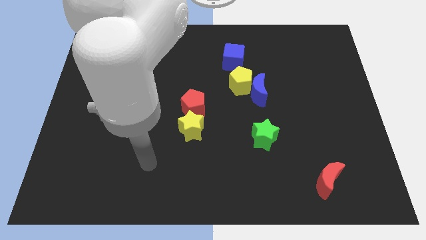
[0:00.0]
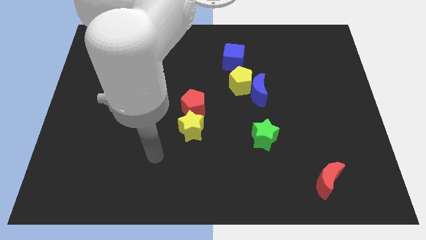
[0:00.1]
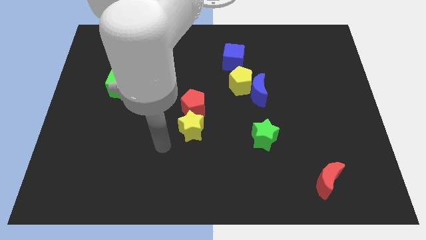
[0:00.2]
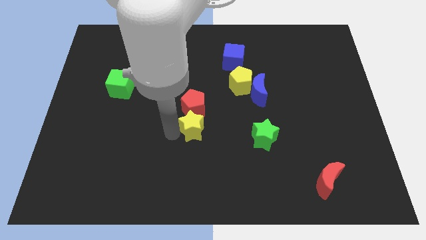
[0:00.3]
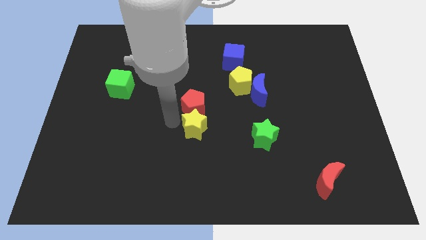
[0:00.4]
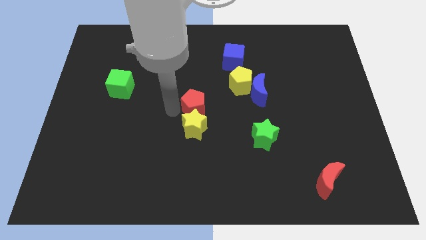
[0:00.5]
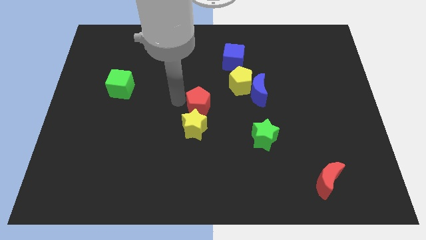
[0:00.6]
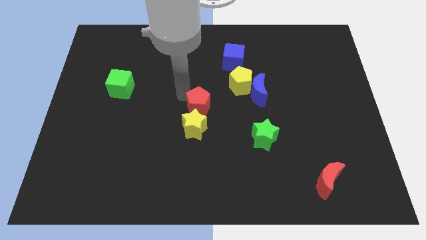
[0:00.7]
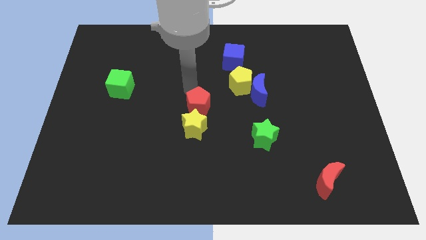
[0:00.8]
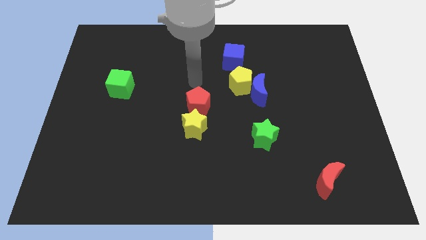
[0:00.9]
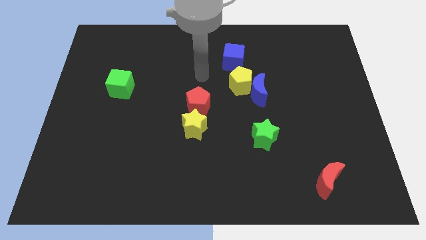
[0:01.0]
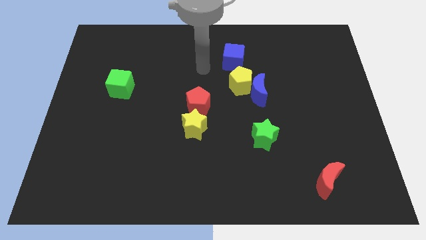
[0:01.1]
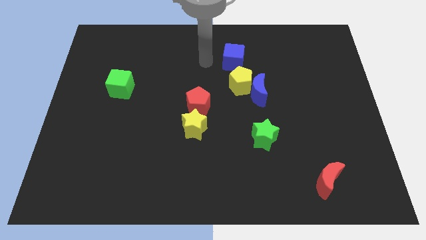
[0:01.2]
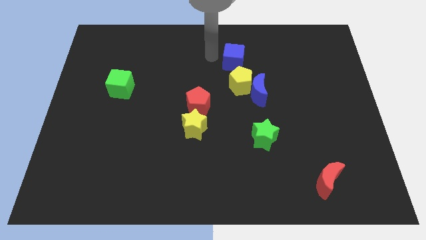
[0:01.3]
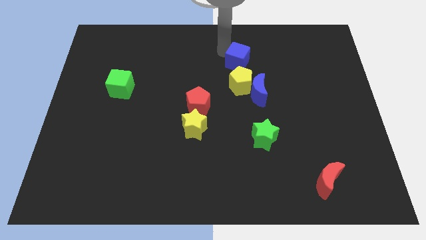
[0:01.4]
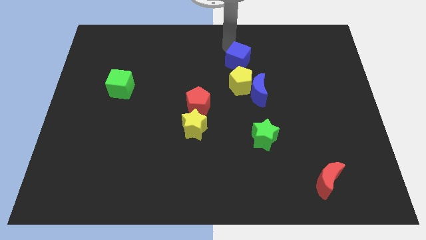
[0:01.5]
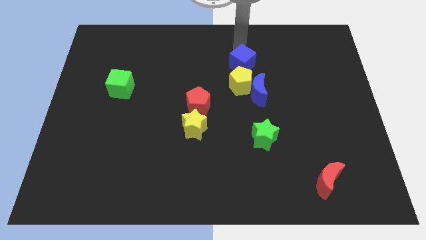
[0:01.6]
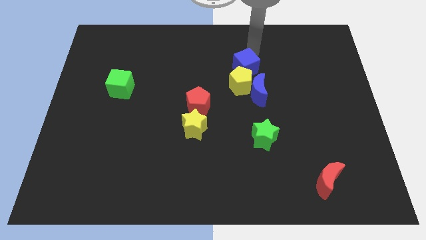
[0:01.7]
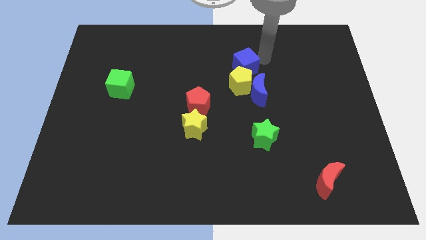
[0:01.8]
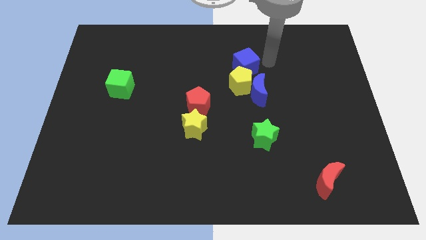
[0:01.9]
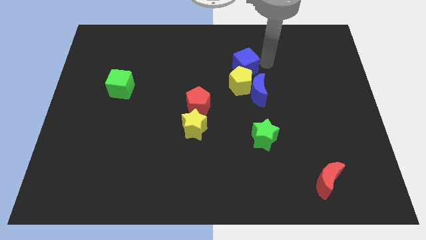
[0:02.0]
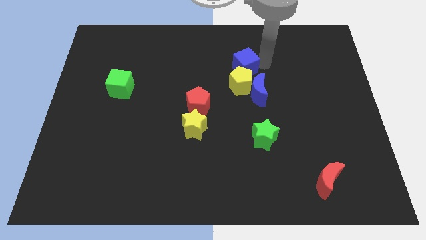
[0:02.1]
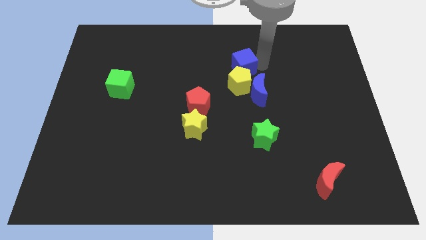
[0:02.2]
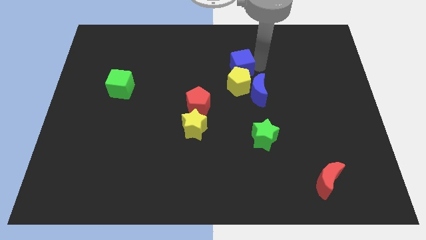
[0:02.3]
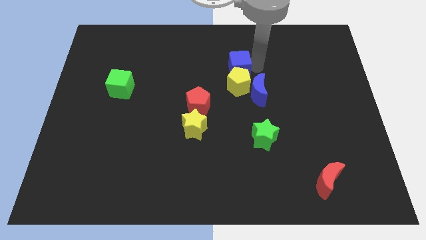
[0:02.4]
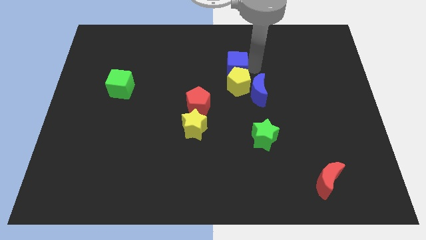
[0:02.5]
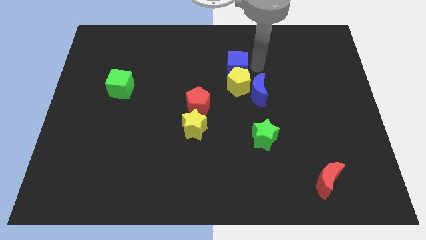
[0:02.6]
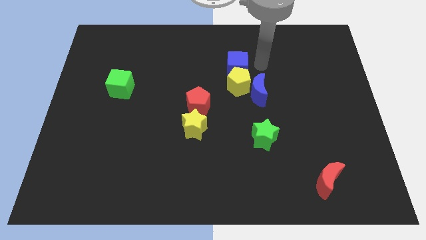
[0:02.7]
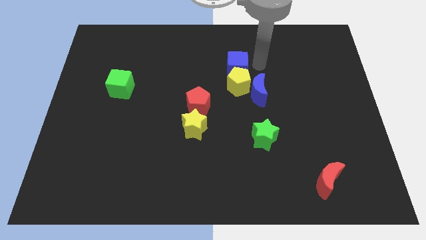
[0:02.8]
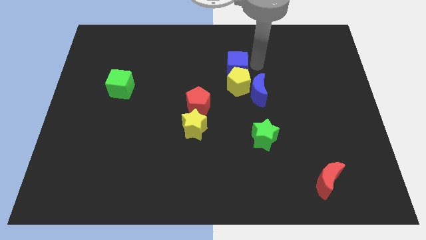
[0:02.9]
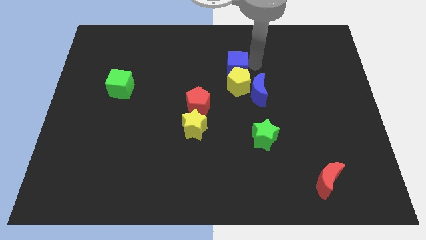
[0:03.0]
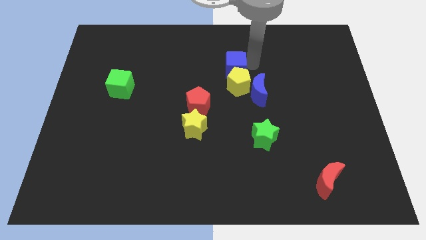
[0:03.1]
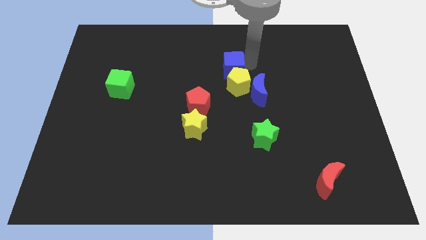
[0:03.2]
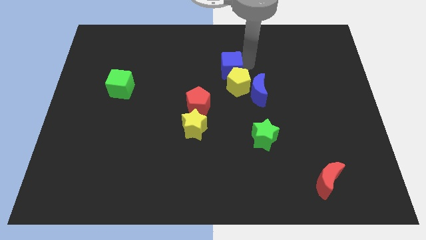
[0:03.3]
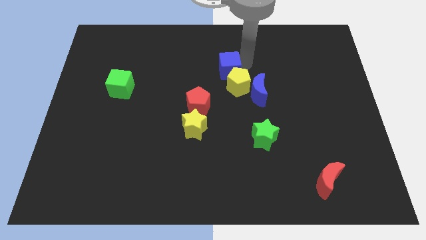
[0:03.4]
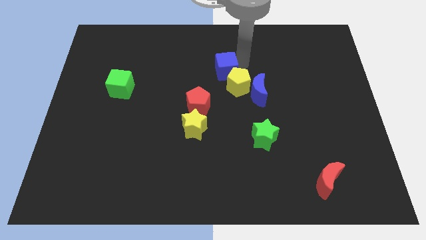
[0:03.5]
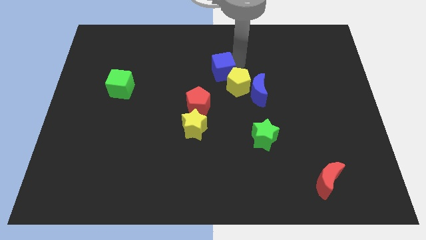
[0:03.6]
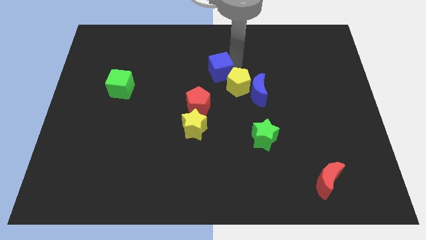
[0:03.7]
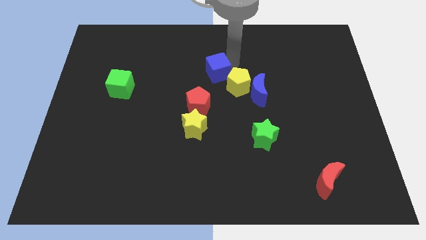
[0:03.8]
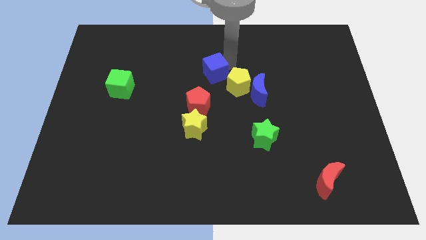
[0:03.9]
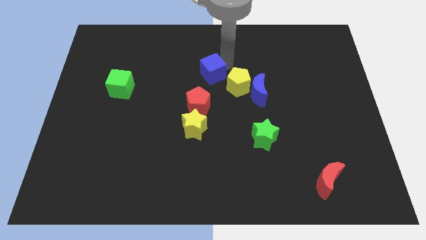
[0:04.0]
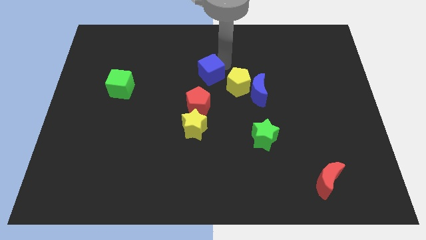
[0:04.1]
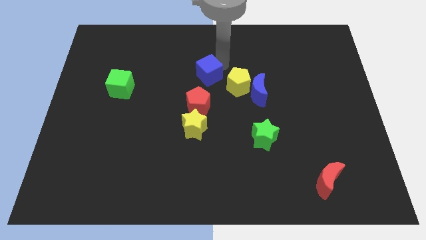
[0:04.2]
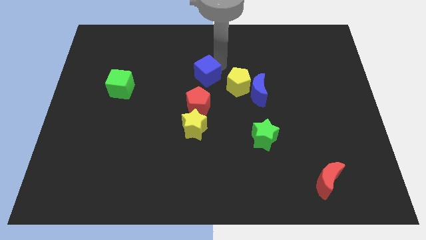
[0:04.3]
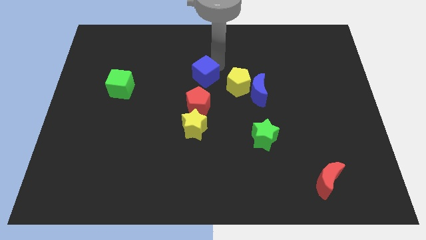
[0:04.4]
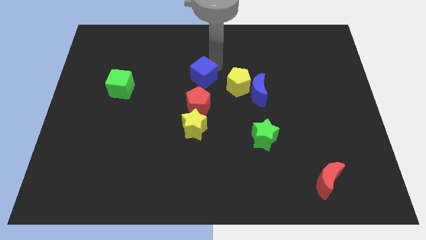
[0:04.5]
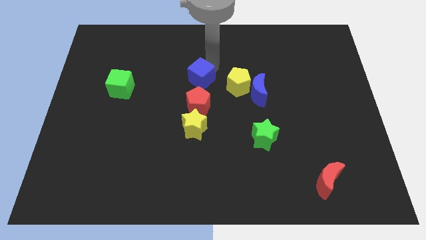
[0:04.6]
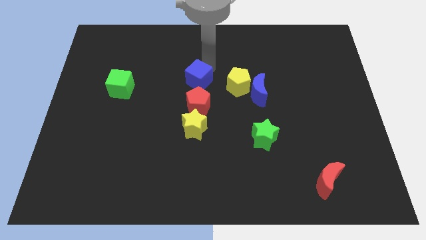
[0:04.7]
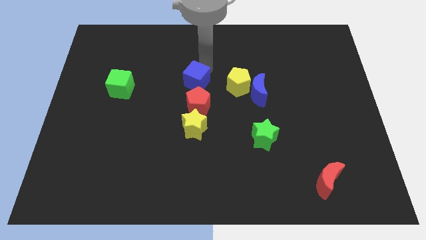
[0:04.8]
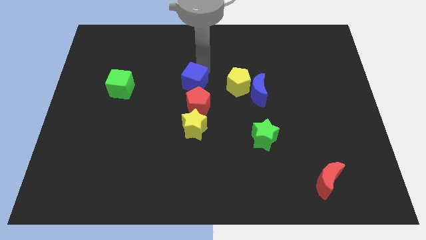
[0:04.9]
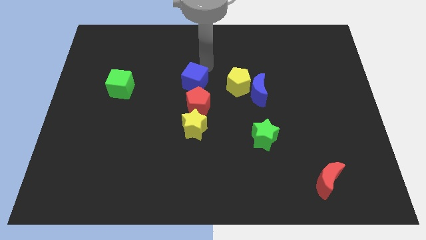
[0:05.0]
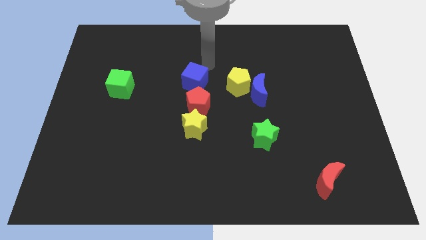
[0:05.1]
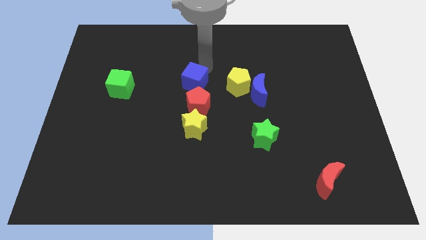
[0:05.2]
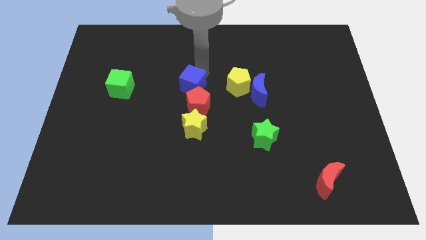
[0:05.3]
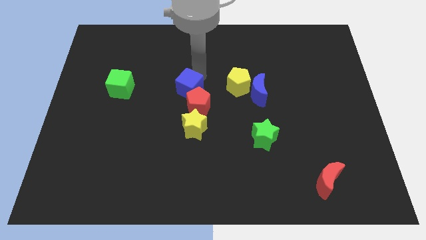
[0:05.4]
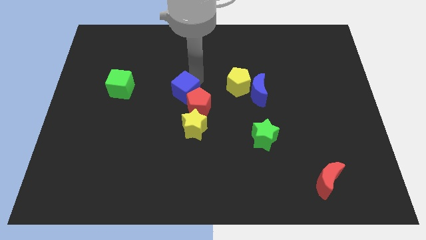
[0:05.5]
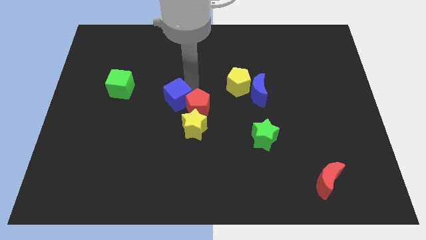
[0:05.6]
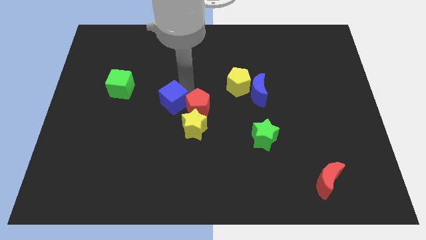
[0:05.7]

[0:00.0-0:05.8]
push the blue cube diagonally down and left

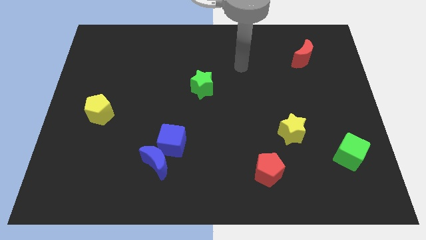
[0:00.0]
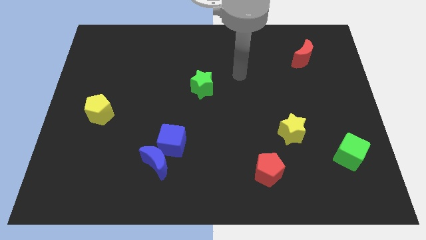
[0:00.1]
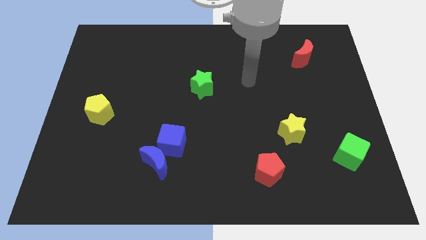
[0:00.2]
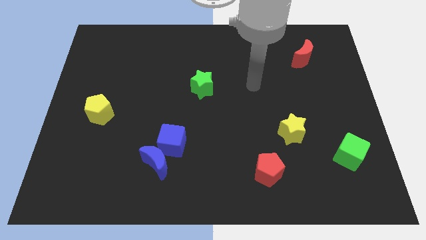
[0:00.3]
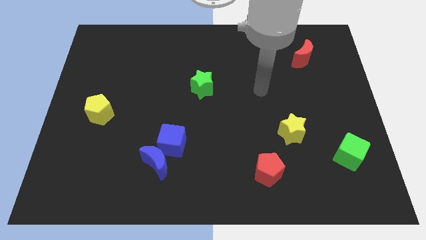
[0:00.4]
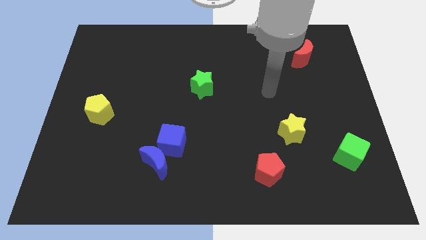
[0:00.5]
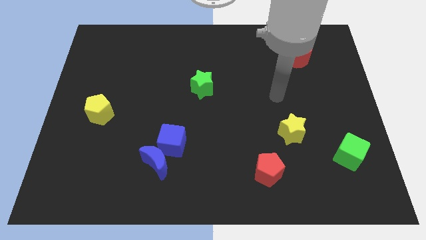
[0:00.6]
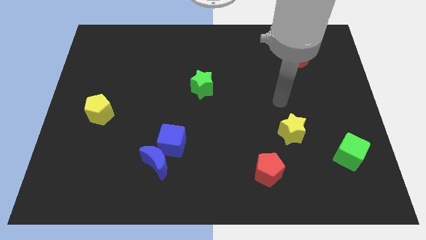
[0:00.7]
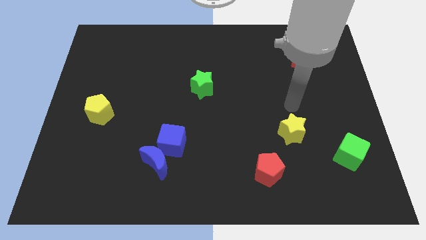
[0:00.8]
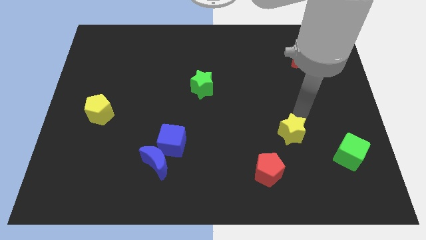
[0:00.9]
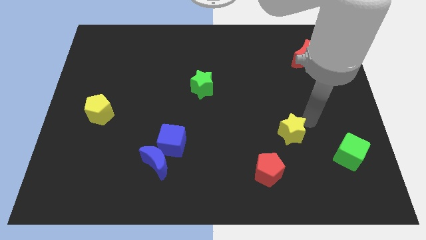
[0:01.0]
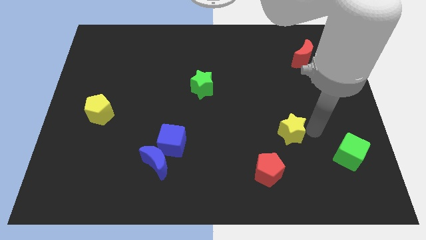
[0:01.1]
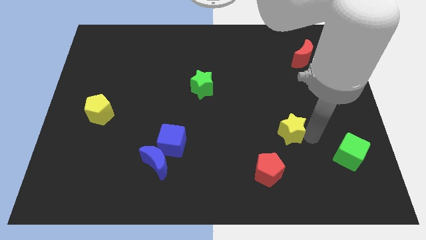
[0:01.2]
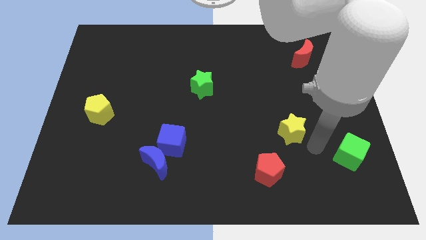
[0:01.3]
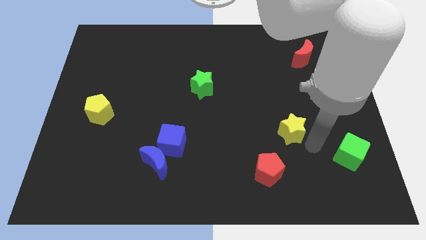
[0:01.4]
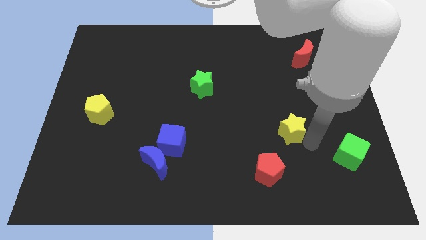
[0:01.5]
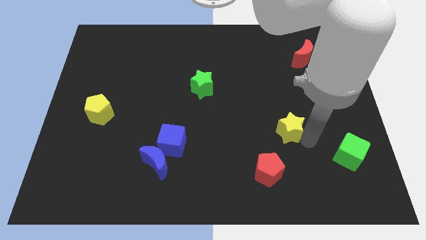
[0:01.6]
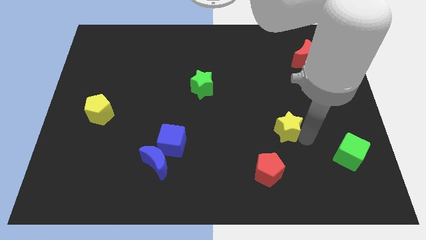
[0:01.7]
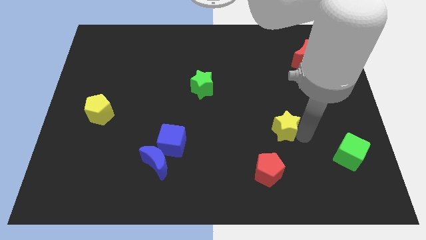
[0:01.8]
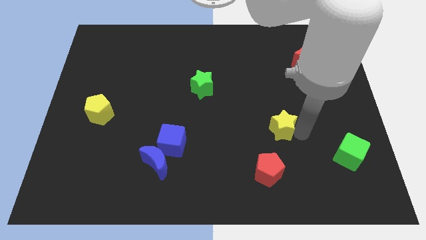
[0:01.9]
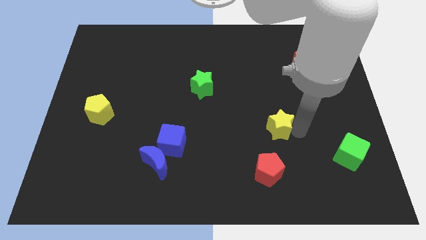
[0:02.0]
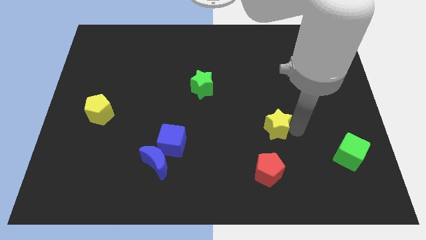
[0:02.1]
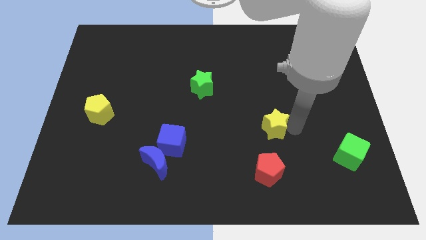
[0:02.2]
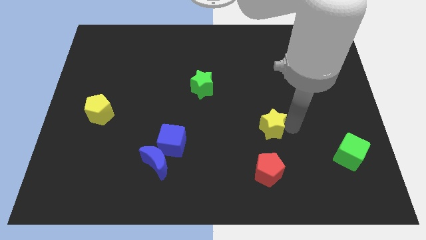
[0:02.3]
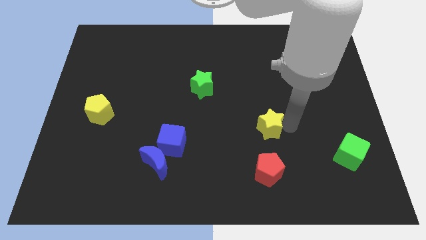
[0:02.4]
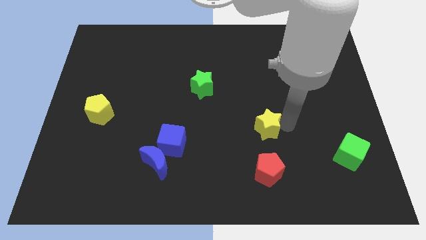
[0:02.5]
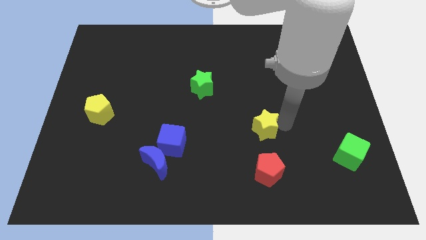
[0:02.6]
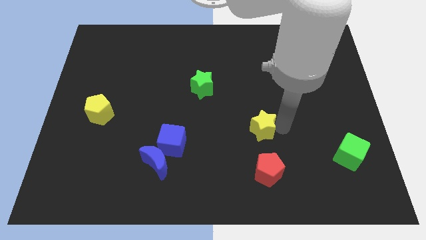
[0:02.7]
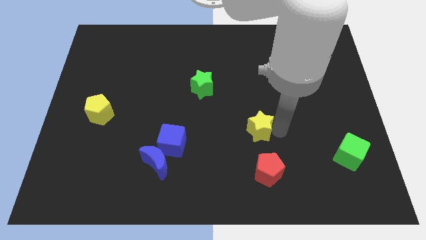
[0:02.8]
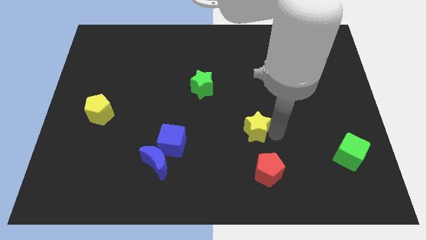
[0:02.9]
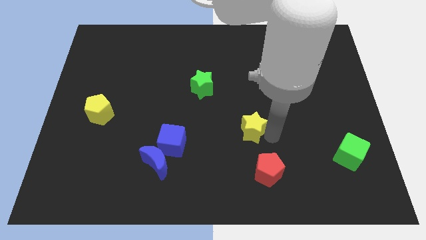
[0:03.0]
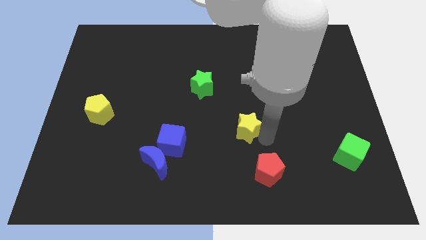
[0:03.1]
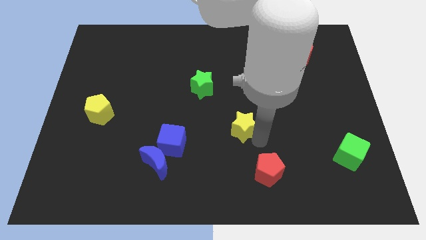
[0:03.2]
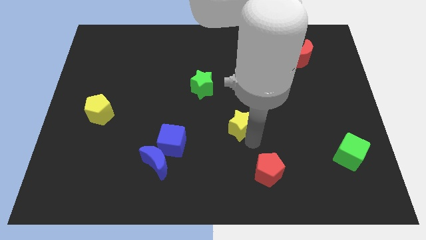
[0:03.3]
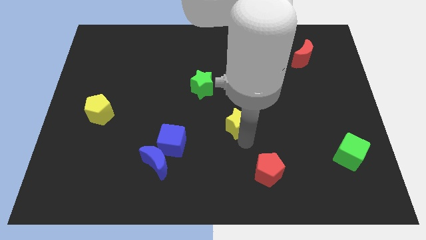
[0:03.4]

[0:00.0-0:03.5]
slightly move the yellow star upwards and to the left
